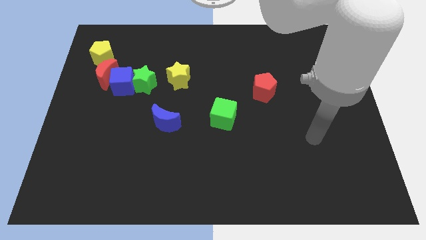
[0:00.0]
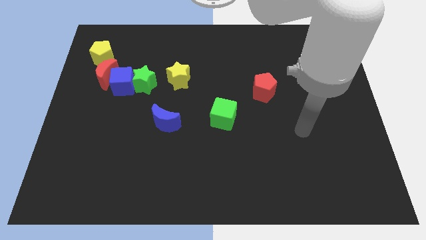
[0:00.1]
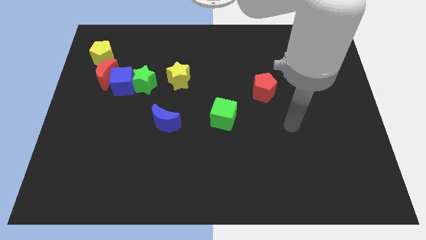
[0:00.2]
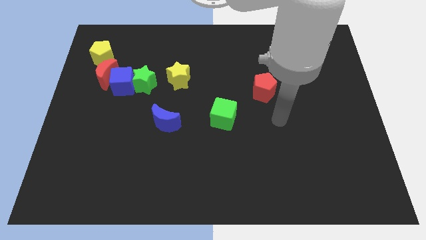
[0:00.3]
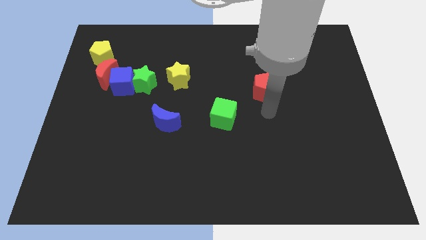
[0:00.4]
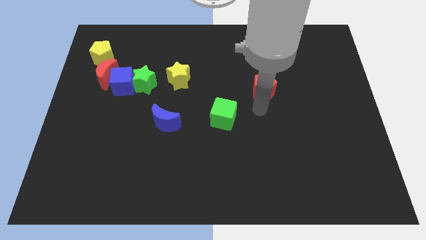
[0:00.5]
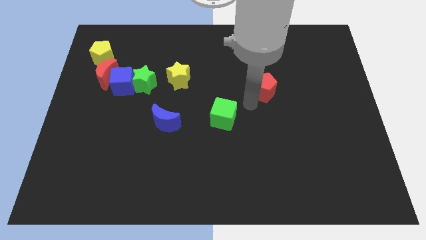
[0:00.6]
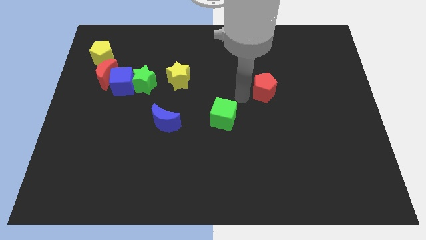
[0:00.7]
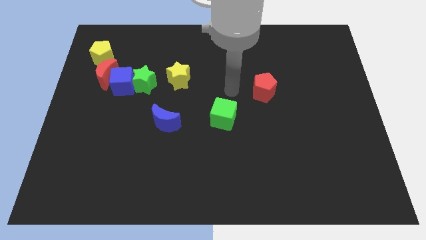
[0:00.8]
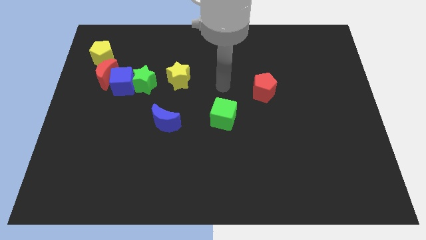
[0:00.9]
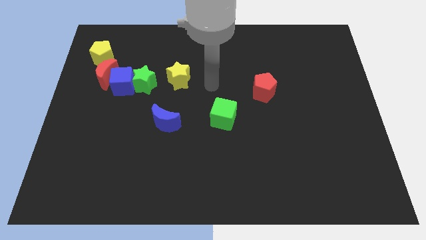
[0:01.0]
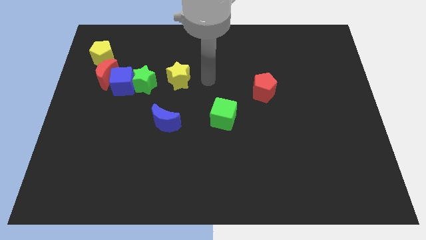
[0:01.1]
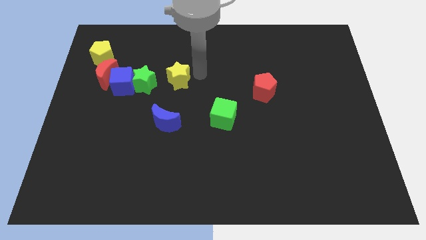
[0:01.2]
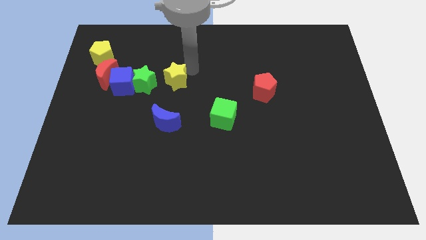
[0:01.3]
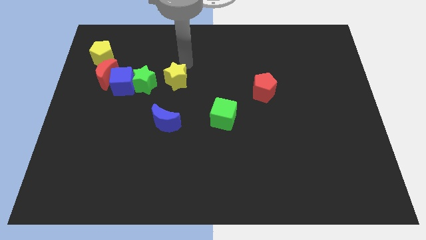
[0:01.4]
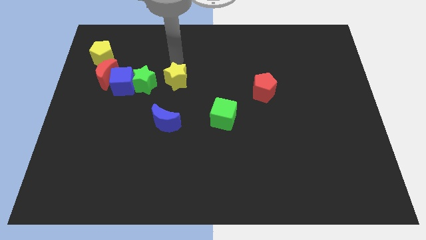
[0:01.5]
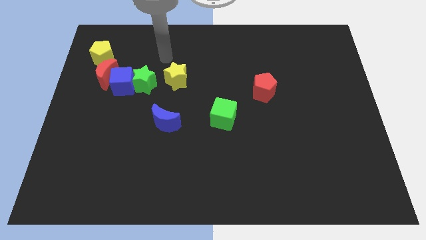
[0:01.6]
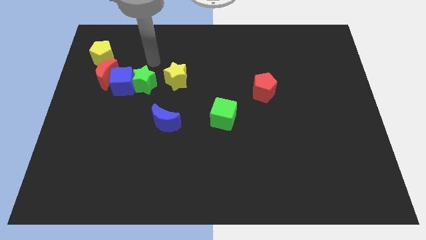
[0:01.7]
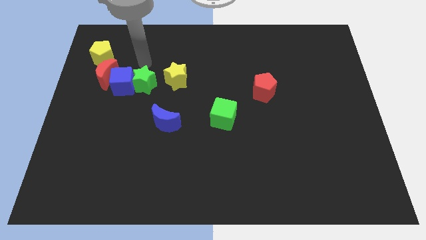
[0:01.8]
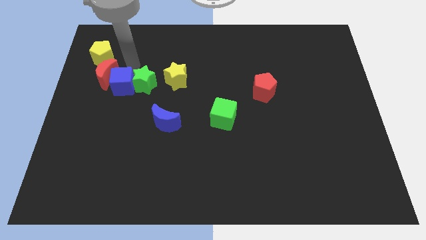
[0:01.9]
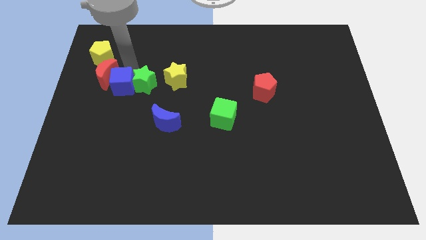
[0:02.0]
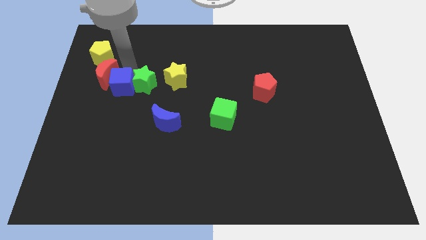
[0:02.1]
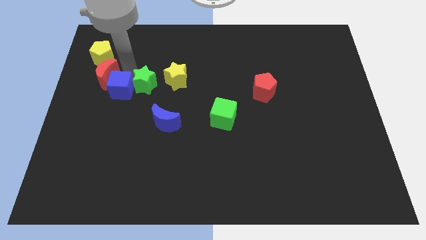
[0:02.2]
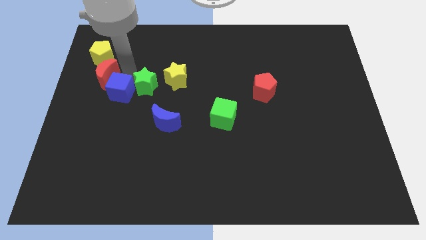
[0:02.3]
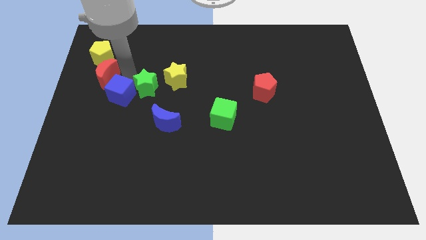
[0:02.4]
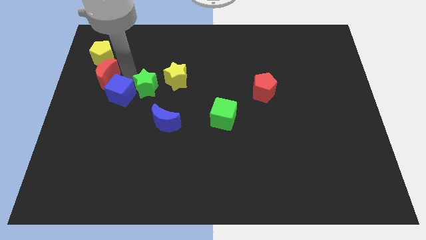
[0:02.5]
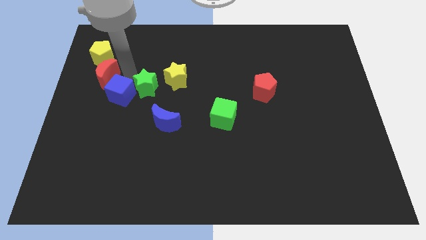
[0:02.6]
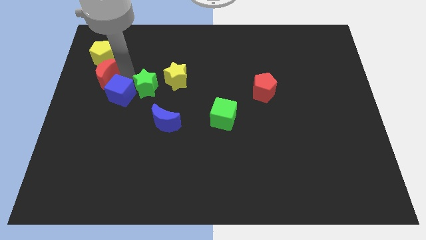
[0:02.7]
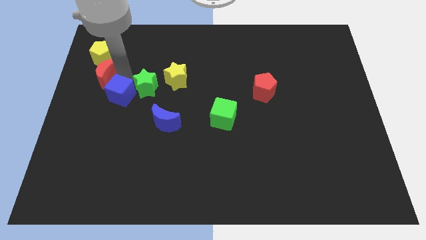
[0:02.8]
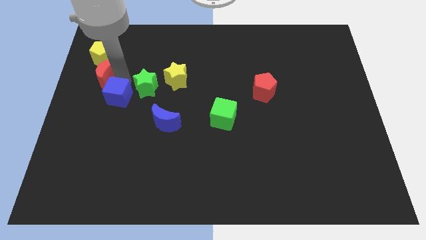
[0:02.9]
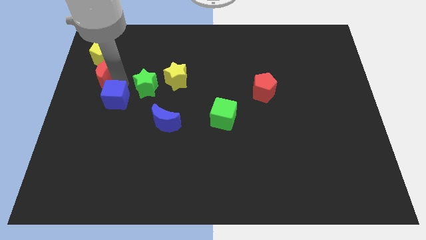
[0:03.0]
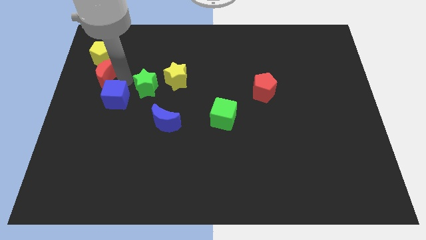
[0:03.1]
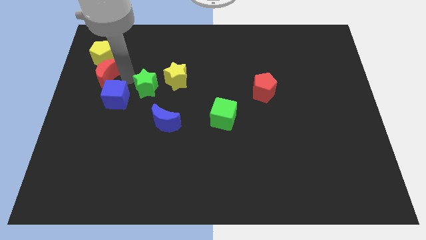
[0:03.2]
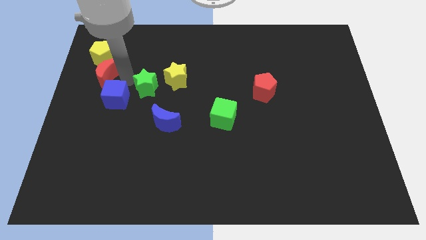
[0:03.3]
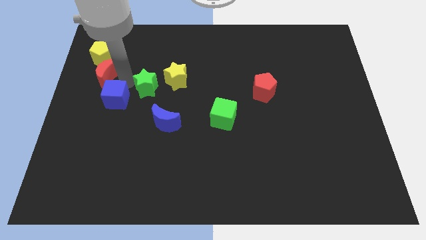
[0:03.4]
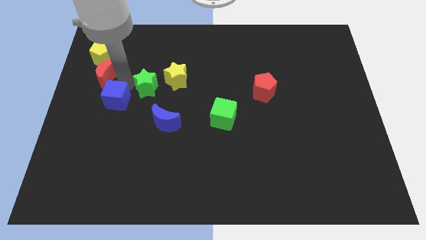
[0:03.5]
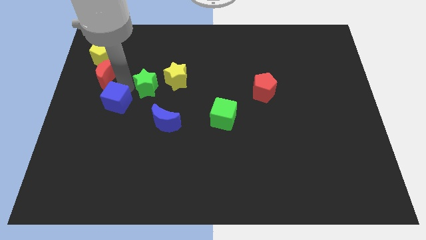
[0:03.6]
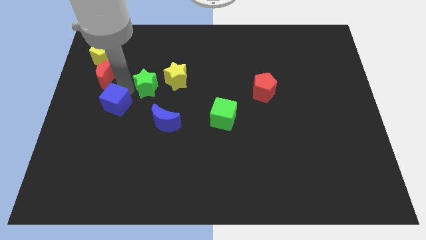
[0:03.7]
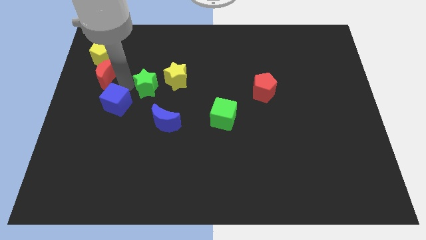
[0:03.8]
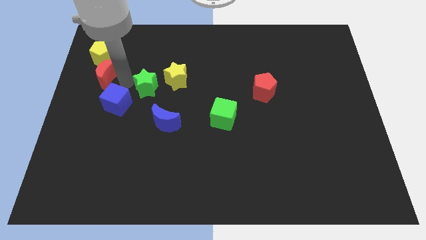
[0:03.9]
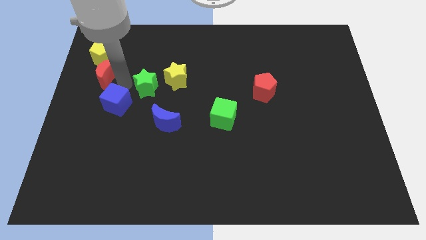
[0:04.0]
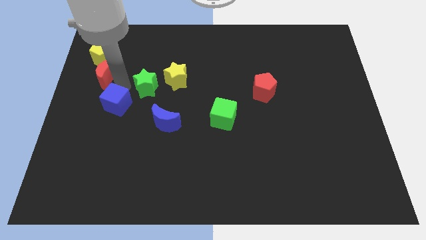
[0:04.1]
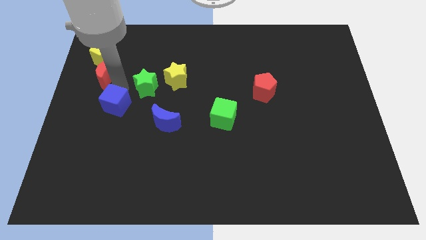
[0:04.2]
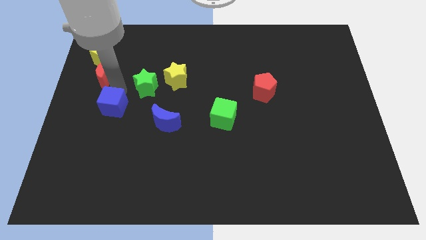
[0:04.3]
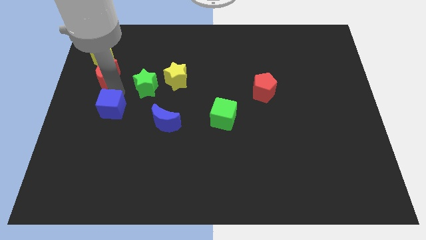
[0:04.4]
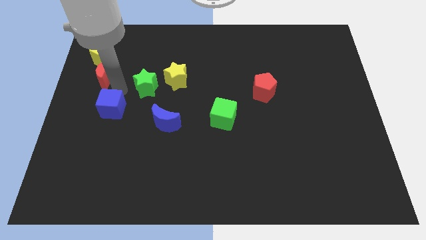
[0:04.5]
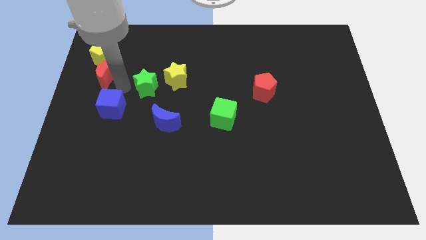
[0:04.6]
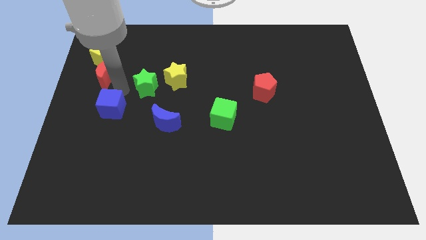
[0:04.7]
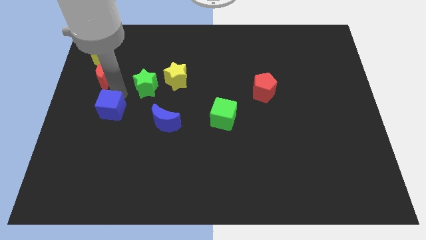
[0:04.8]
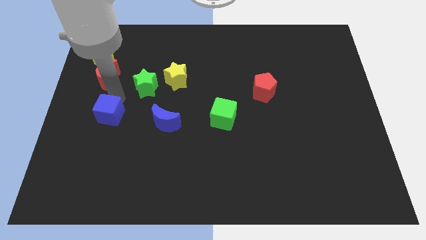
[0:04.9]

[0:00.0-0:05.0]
separate the blue cube from the green star and red moon

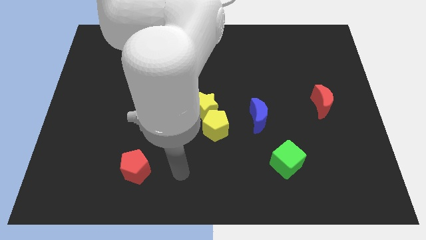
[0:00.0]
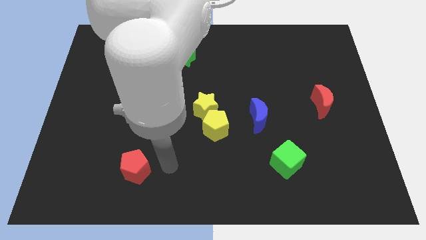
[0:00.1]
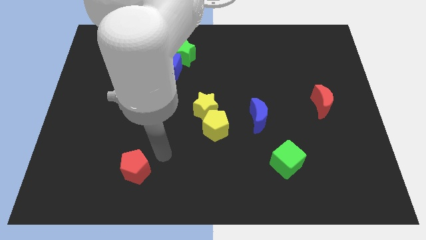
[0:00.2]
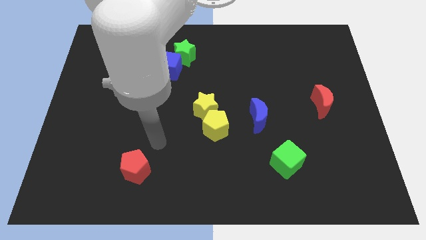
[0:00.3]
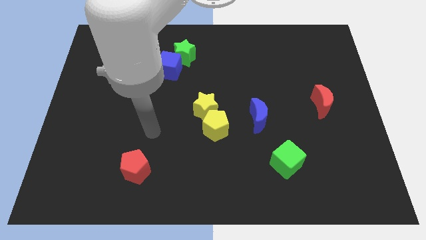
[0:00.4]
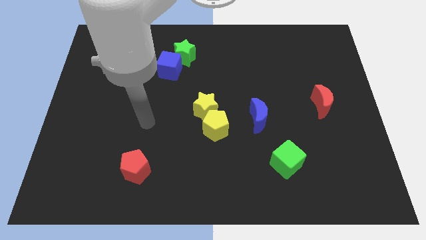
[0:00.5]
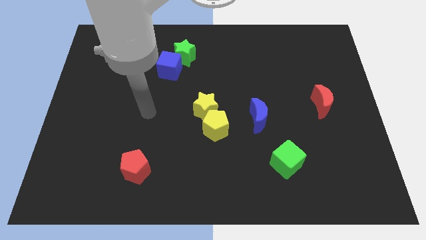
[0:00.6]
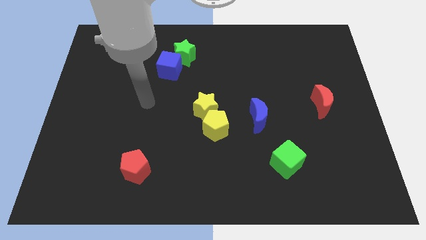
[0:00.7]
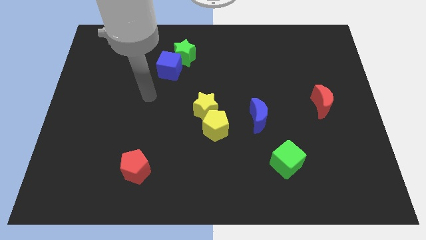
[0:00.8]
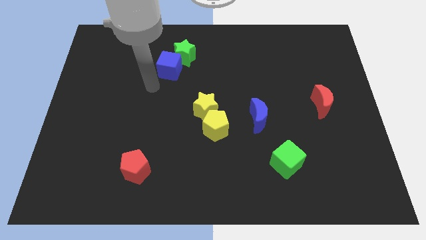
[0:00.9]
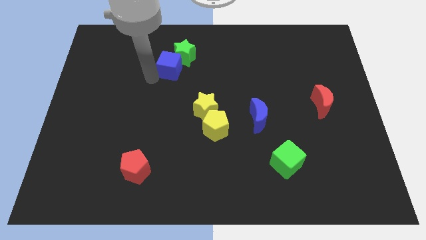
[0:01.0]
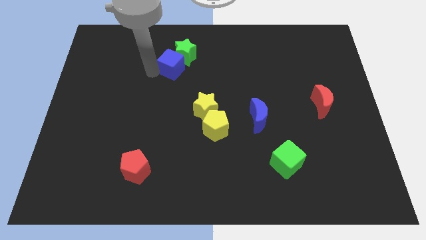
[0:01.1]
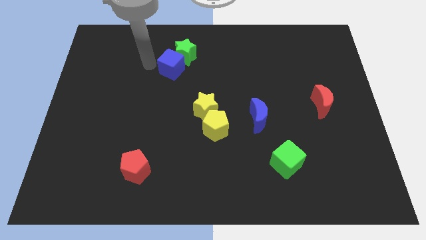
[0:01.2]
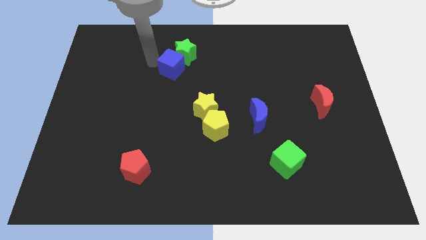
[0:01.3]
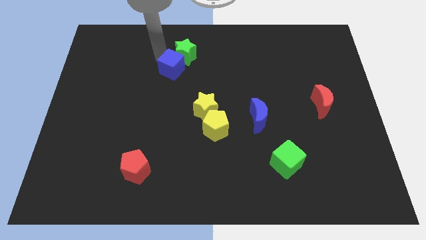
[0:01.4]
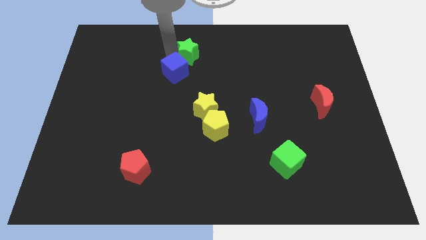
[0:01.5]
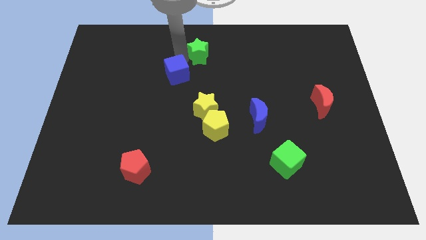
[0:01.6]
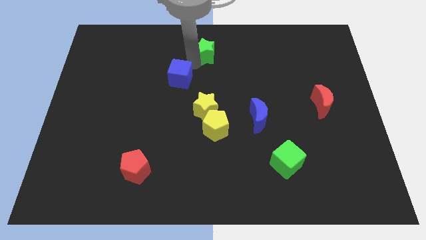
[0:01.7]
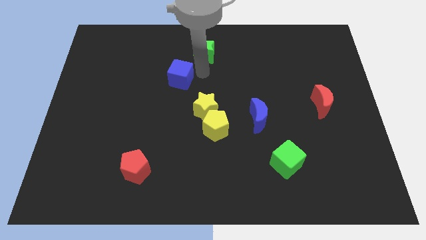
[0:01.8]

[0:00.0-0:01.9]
move the blue cube away from the green star

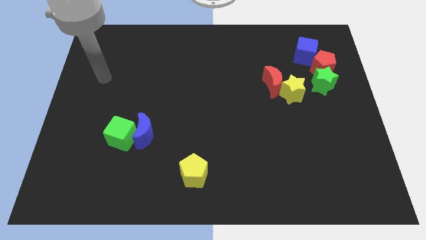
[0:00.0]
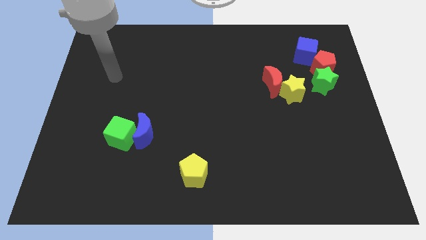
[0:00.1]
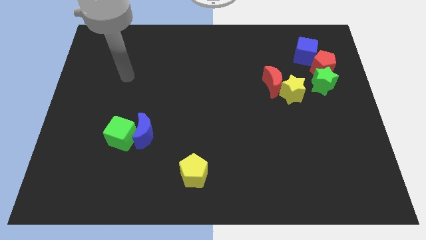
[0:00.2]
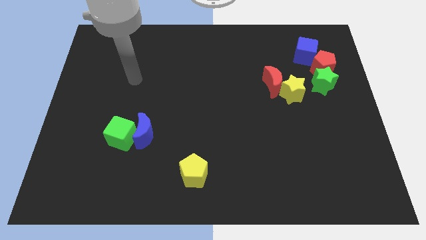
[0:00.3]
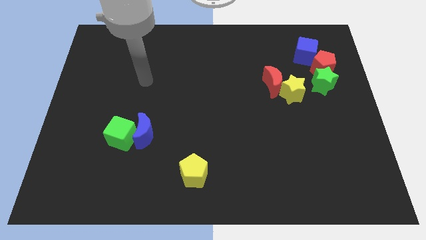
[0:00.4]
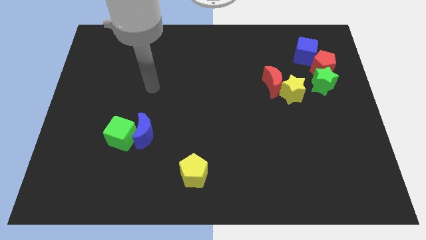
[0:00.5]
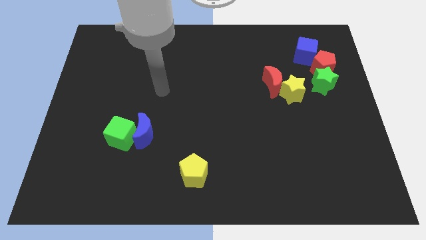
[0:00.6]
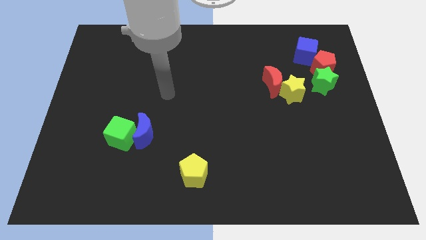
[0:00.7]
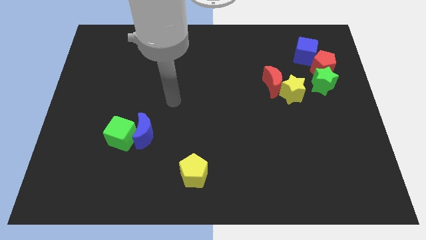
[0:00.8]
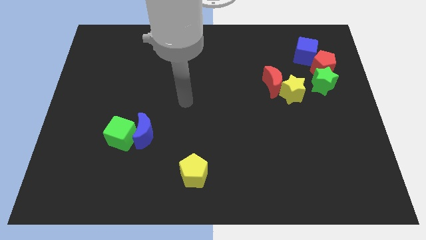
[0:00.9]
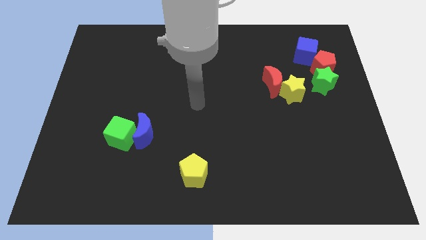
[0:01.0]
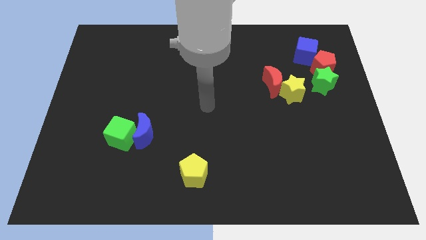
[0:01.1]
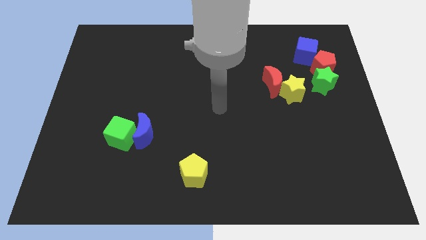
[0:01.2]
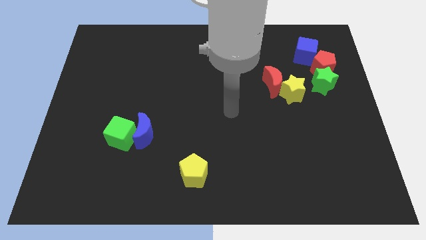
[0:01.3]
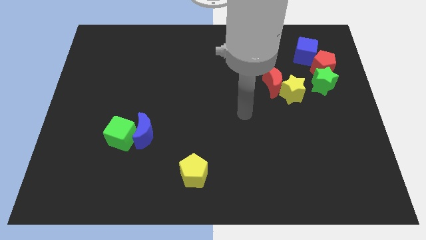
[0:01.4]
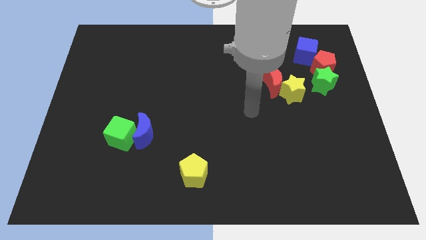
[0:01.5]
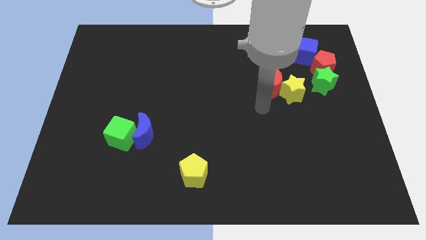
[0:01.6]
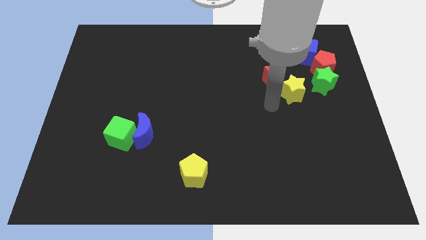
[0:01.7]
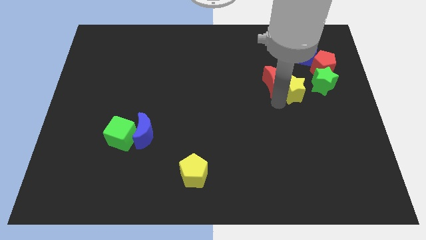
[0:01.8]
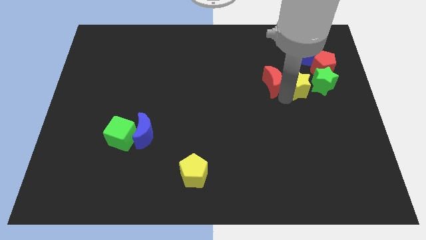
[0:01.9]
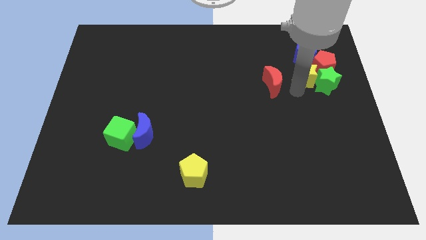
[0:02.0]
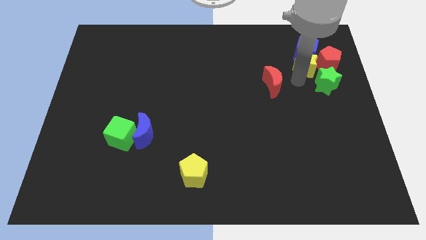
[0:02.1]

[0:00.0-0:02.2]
separate the red moon from the yellow star

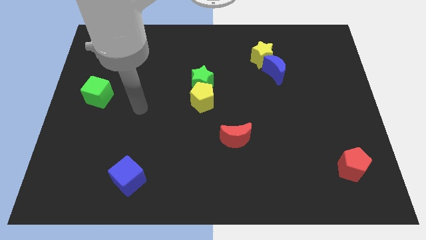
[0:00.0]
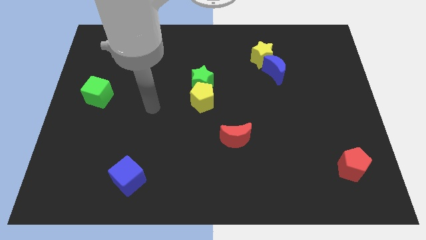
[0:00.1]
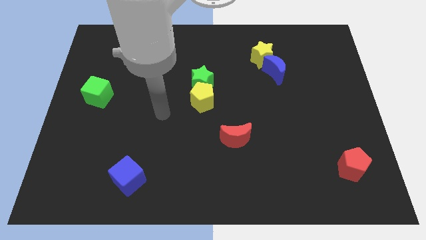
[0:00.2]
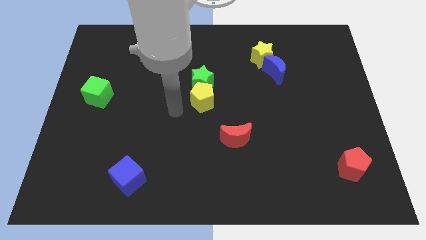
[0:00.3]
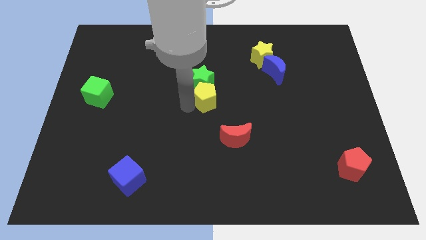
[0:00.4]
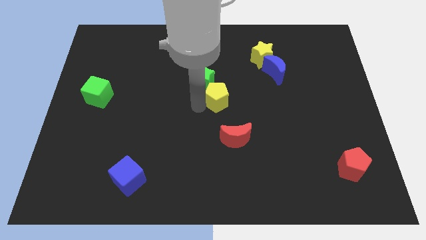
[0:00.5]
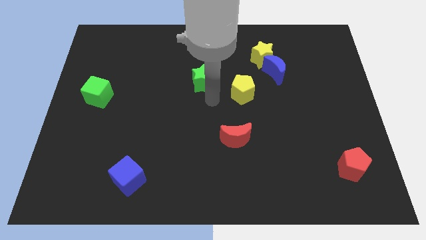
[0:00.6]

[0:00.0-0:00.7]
separate the green star from the yellow pentagon
